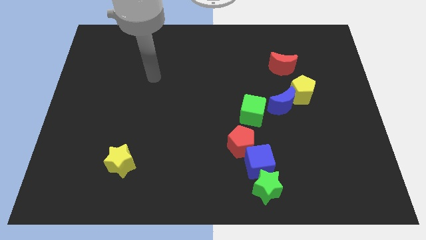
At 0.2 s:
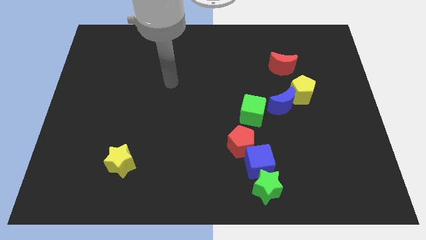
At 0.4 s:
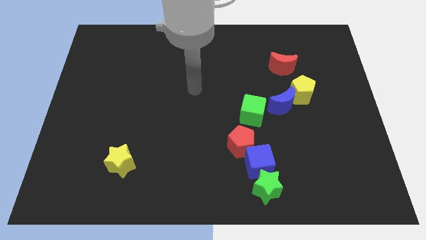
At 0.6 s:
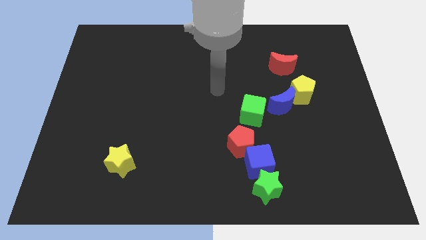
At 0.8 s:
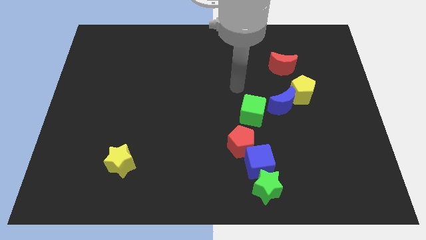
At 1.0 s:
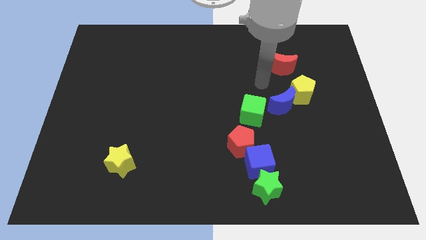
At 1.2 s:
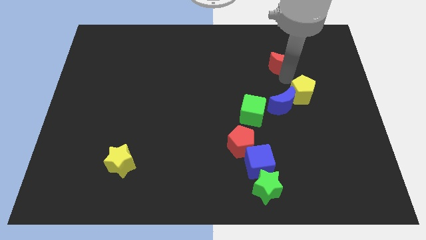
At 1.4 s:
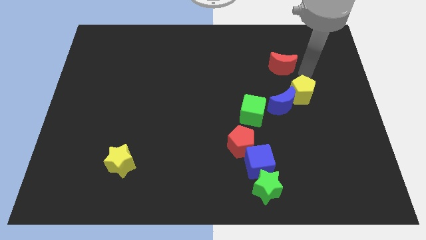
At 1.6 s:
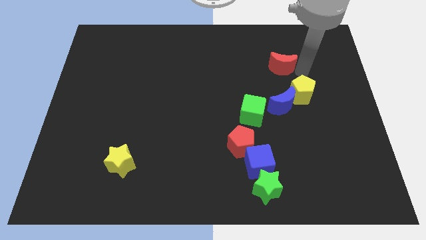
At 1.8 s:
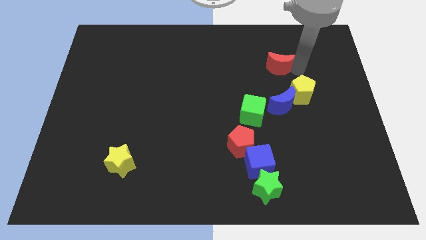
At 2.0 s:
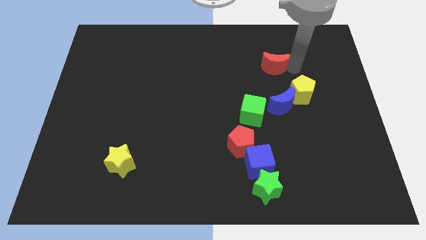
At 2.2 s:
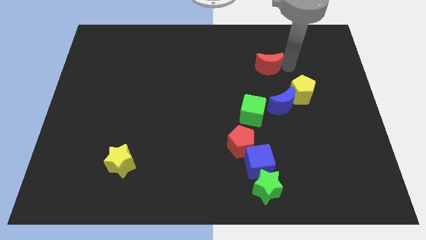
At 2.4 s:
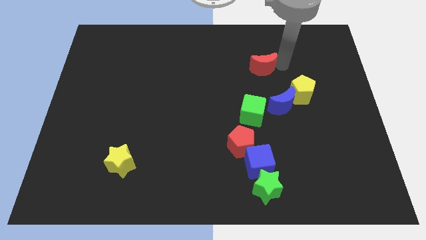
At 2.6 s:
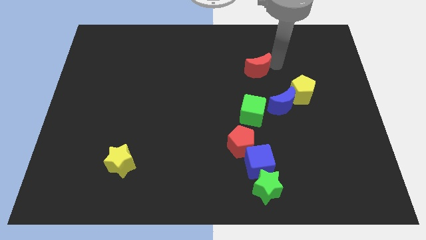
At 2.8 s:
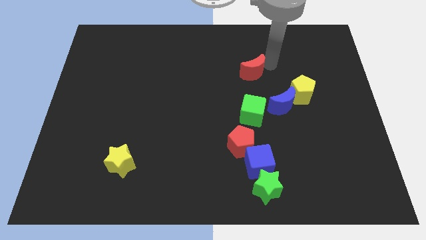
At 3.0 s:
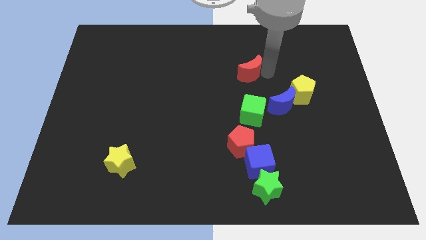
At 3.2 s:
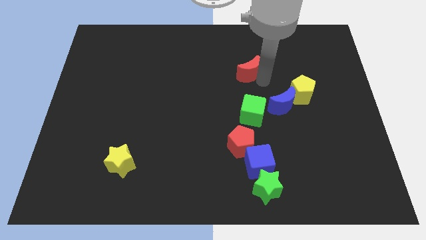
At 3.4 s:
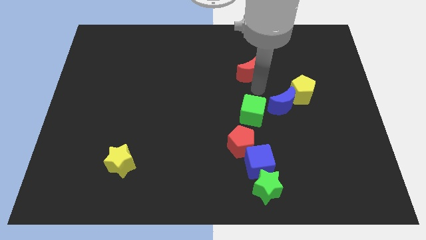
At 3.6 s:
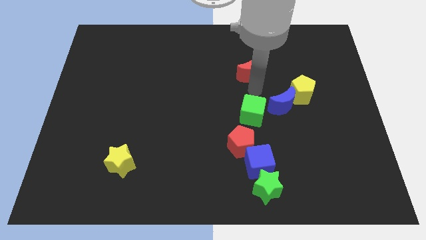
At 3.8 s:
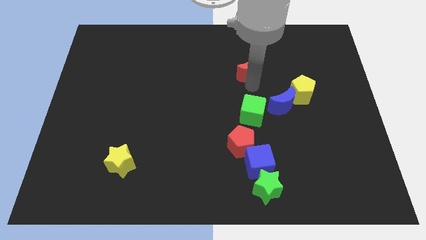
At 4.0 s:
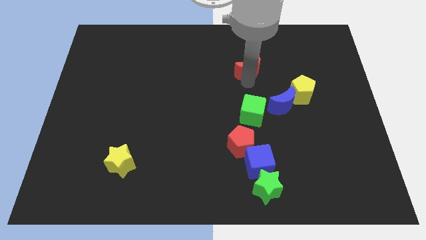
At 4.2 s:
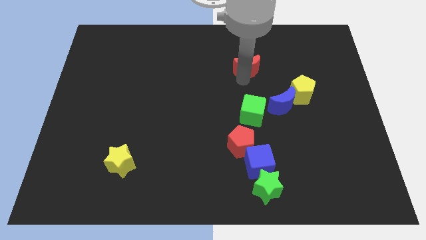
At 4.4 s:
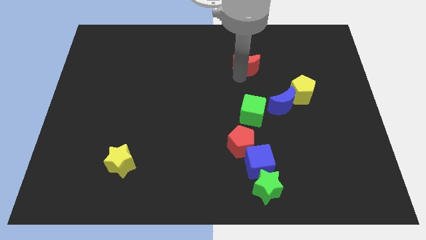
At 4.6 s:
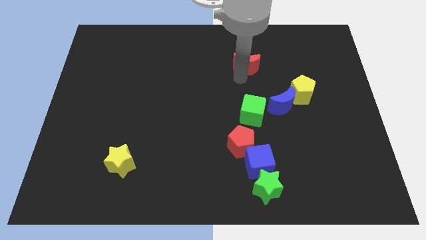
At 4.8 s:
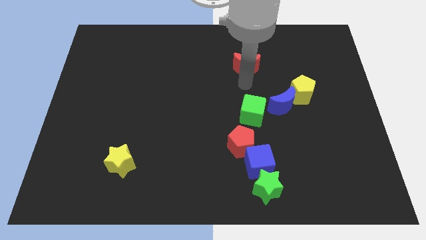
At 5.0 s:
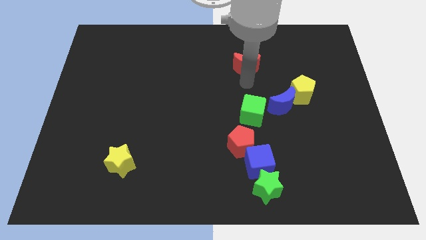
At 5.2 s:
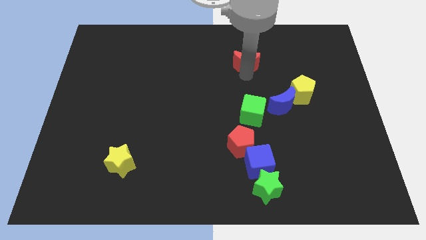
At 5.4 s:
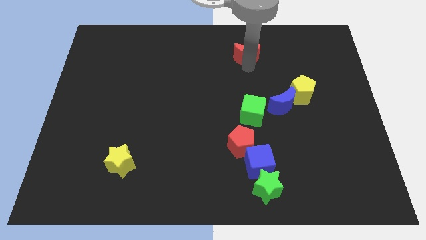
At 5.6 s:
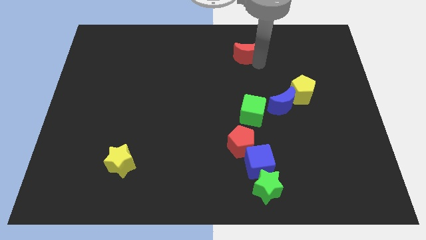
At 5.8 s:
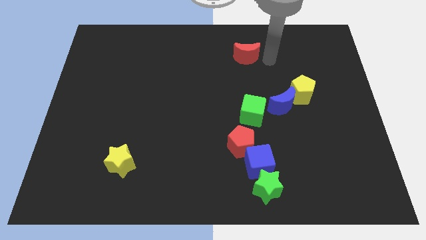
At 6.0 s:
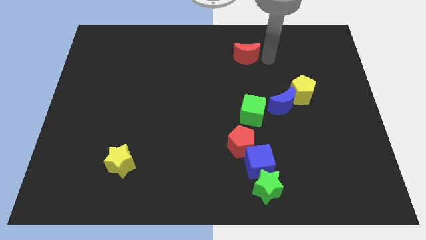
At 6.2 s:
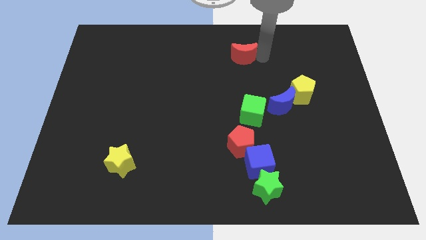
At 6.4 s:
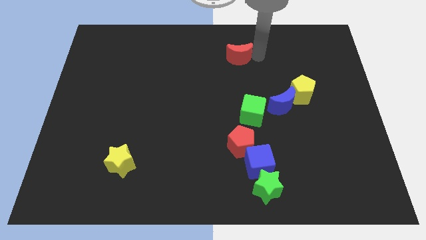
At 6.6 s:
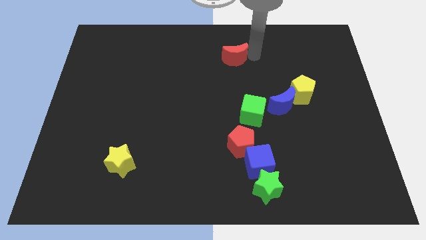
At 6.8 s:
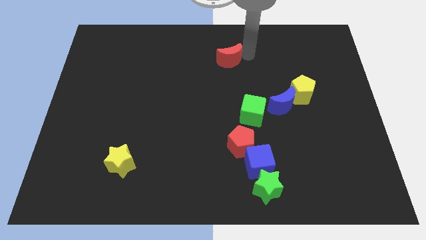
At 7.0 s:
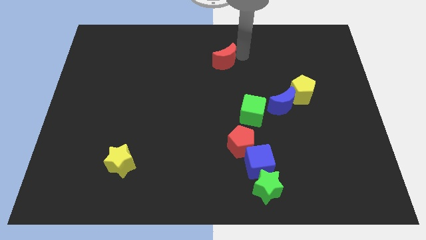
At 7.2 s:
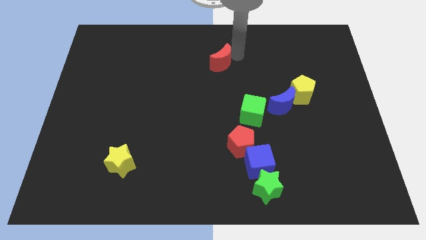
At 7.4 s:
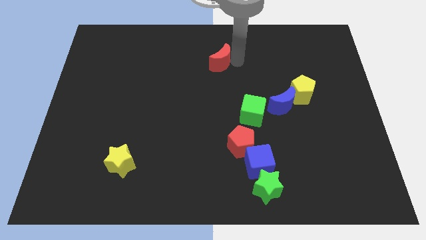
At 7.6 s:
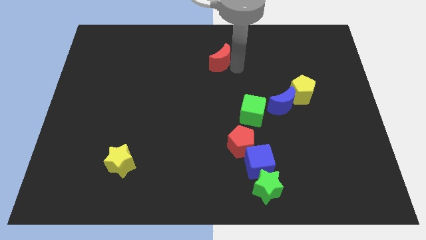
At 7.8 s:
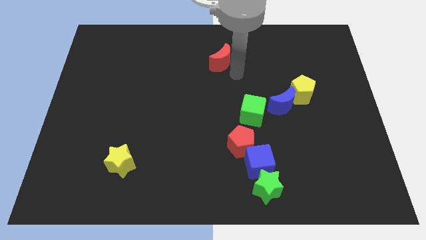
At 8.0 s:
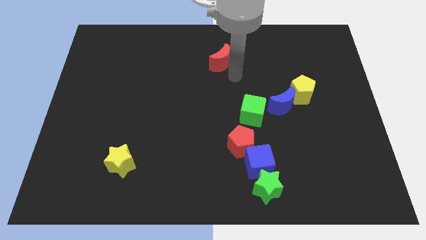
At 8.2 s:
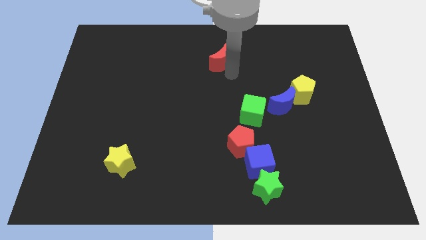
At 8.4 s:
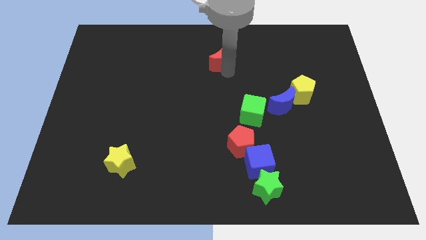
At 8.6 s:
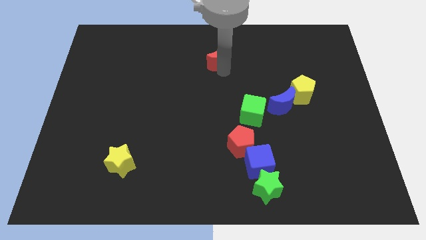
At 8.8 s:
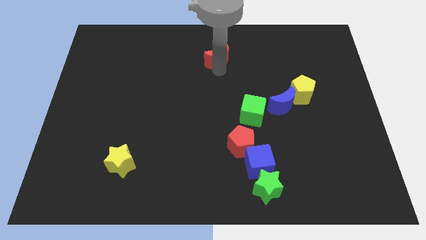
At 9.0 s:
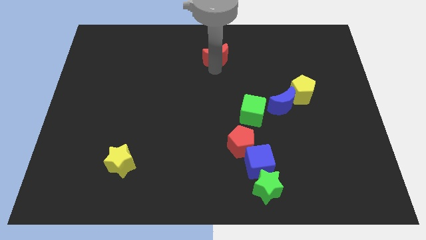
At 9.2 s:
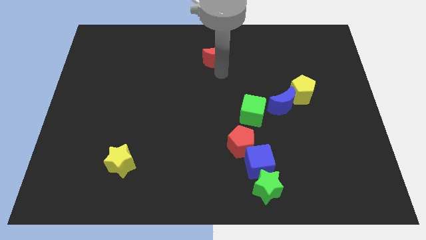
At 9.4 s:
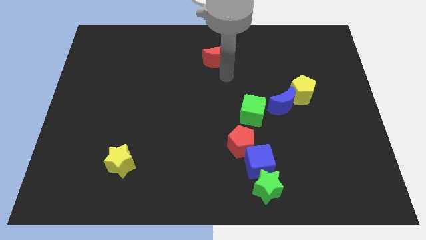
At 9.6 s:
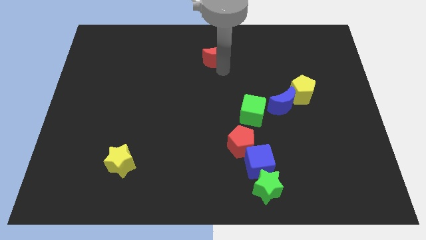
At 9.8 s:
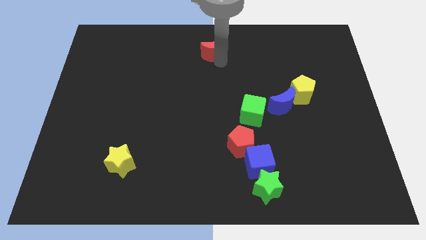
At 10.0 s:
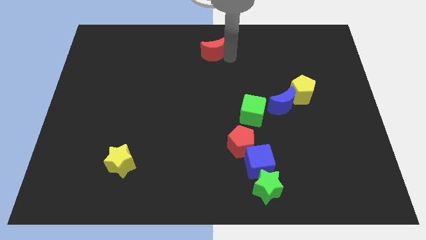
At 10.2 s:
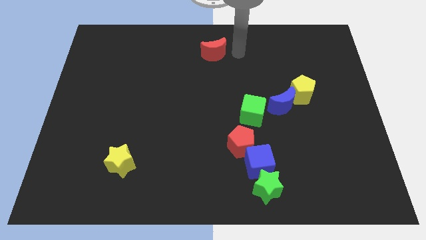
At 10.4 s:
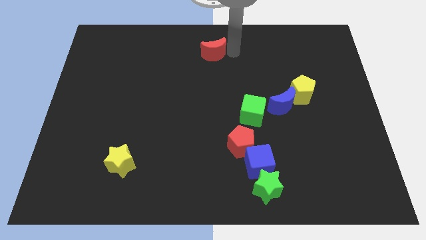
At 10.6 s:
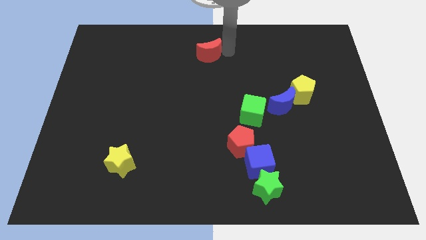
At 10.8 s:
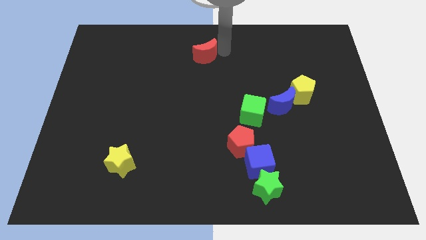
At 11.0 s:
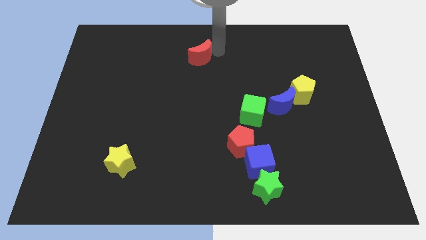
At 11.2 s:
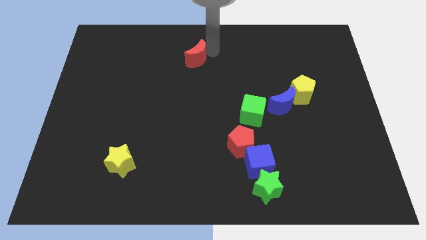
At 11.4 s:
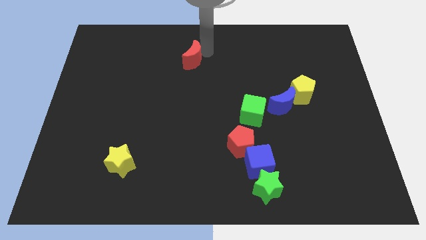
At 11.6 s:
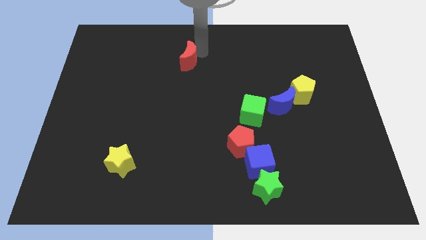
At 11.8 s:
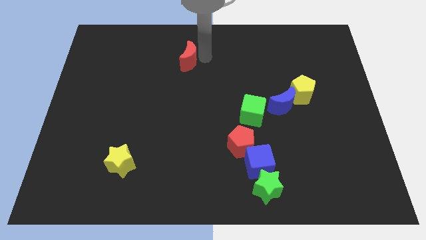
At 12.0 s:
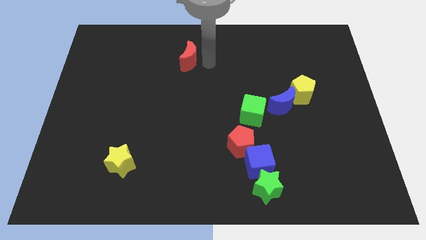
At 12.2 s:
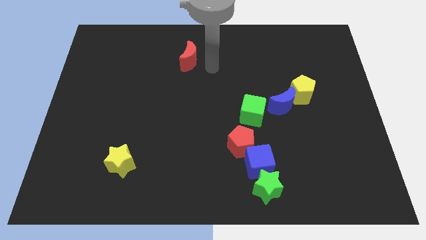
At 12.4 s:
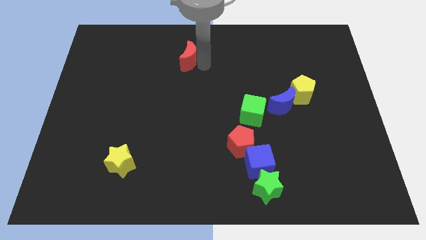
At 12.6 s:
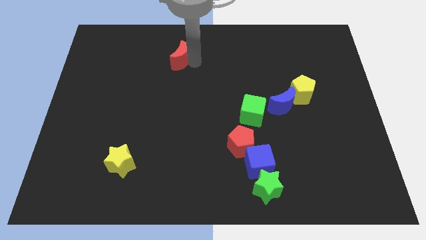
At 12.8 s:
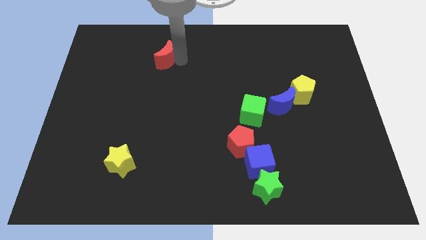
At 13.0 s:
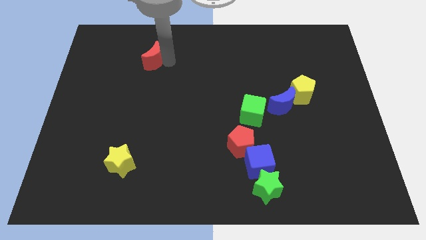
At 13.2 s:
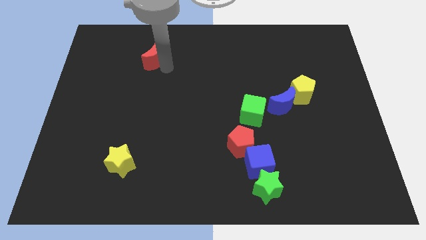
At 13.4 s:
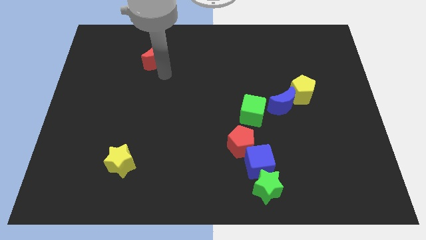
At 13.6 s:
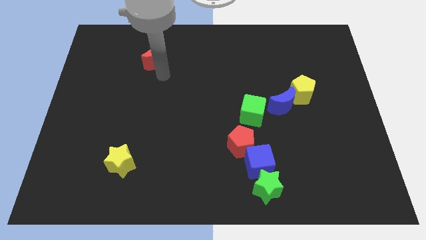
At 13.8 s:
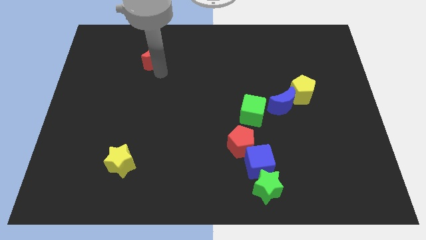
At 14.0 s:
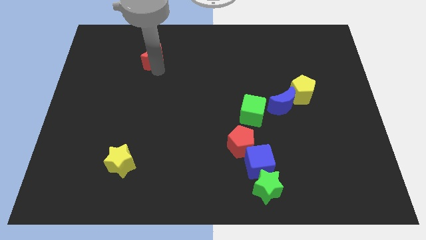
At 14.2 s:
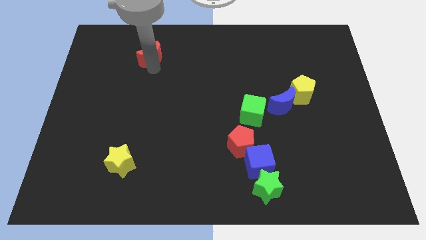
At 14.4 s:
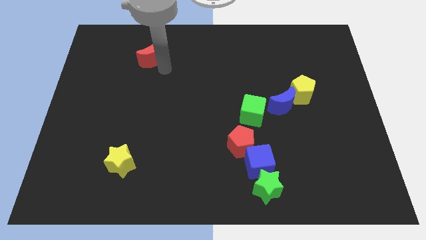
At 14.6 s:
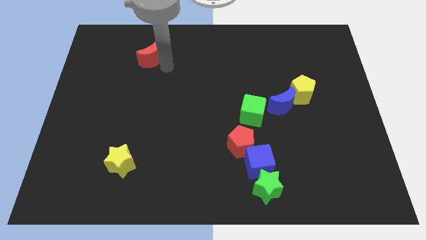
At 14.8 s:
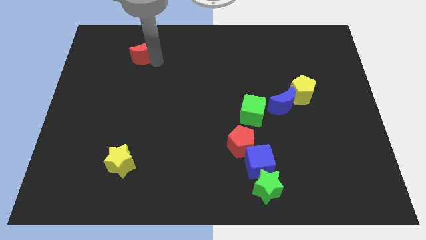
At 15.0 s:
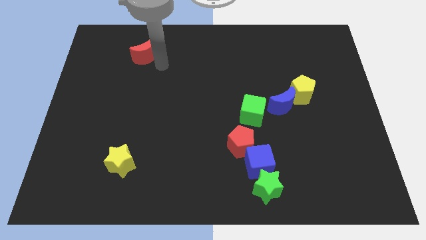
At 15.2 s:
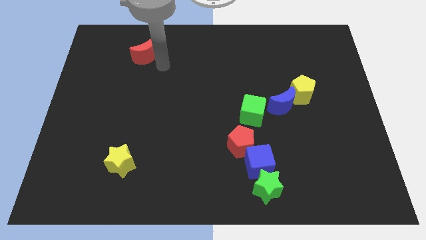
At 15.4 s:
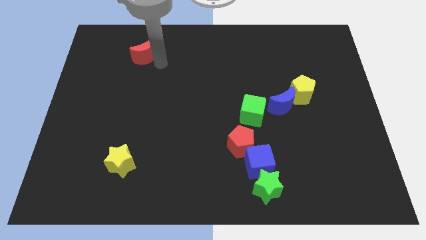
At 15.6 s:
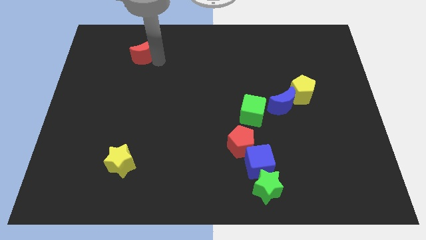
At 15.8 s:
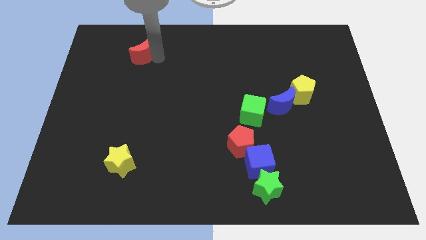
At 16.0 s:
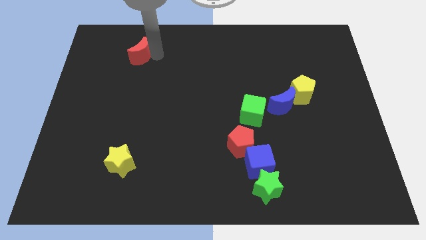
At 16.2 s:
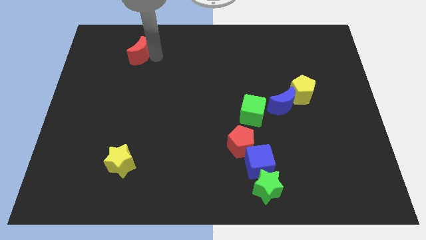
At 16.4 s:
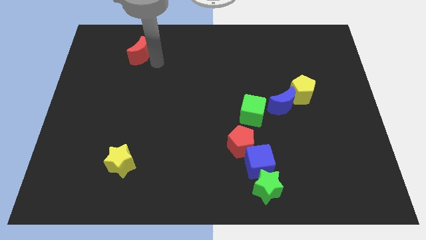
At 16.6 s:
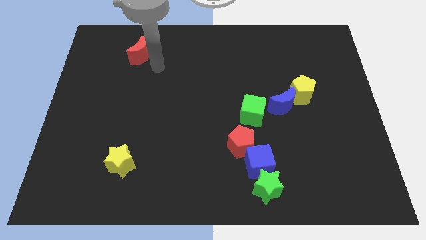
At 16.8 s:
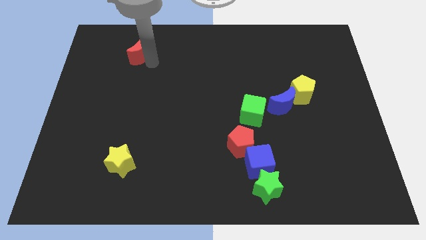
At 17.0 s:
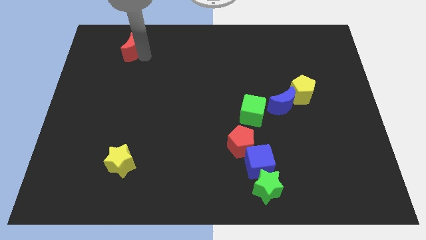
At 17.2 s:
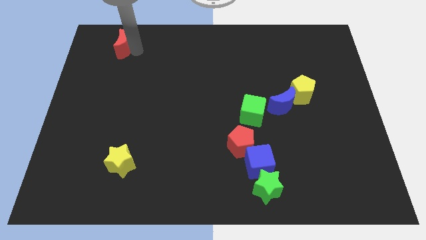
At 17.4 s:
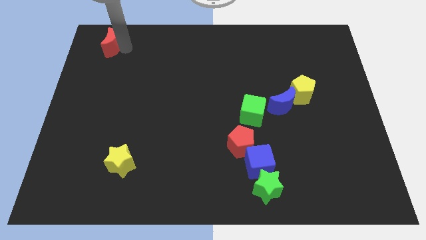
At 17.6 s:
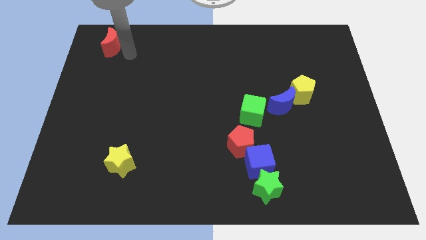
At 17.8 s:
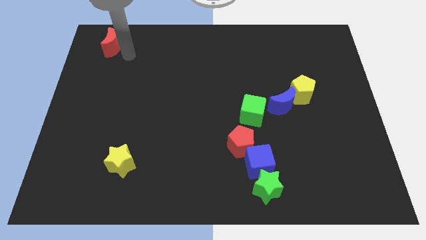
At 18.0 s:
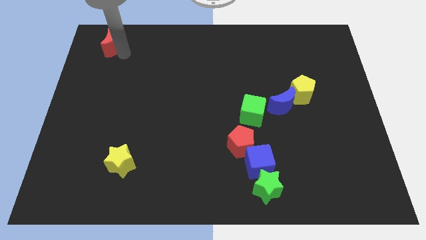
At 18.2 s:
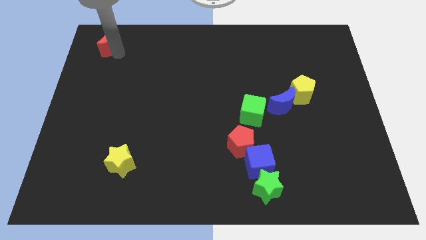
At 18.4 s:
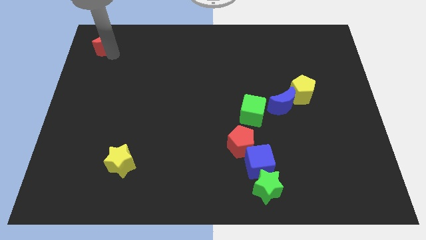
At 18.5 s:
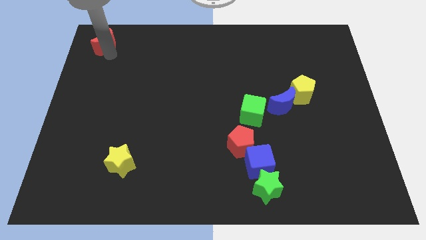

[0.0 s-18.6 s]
put the red moon to the top left corner
